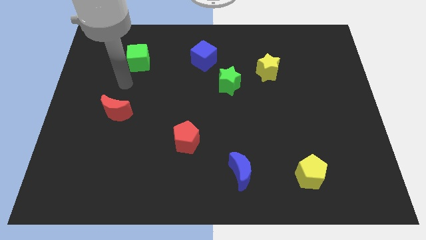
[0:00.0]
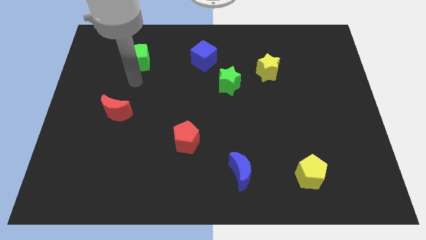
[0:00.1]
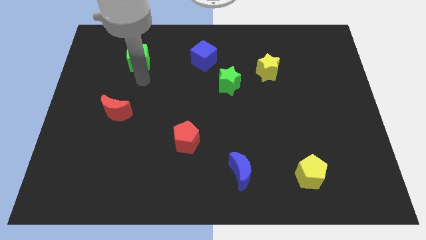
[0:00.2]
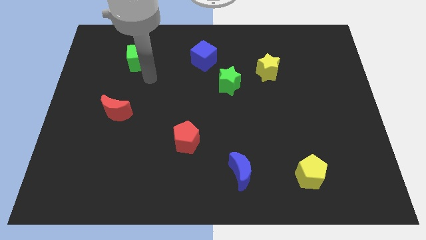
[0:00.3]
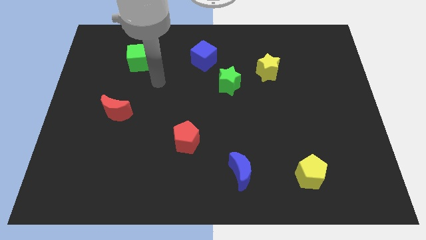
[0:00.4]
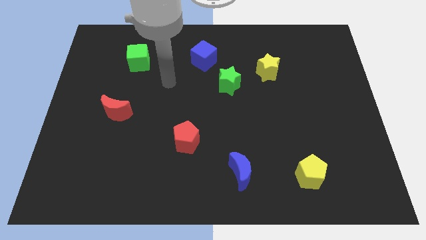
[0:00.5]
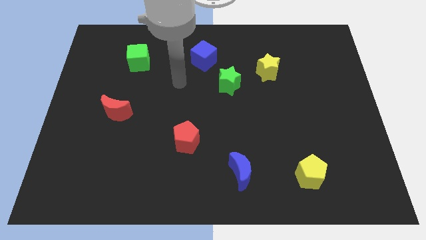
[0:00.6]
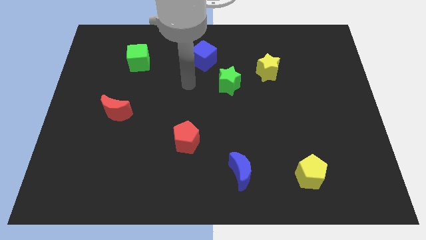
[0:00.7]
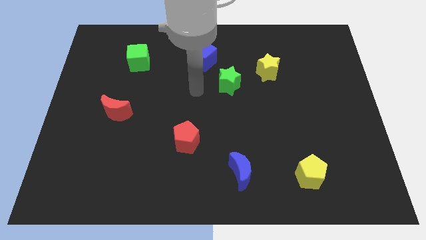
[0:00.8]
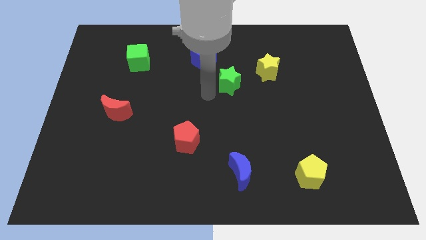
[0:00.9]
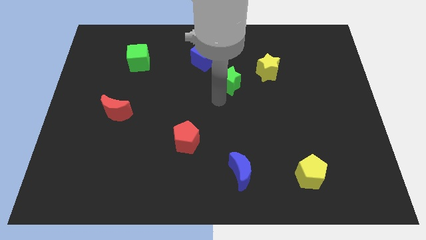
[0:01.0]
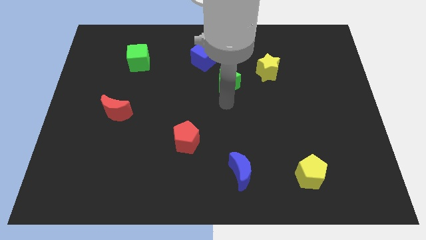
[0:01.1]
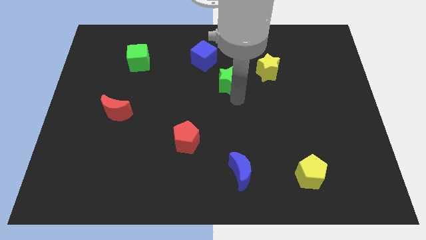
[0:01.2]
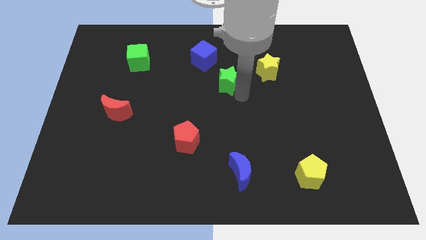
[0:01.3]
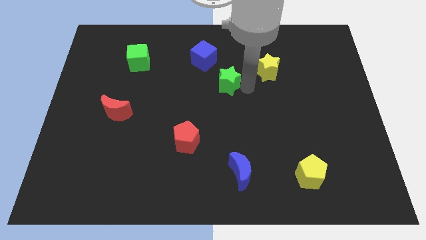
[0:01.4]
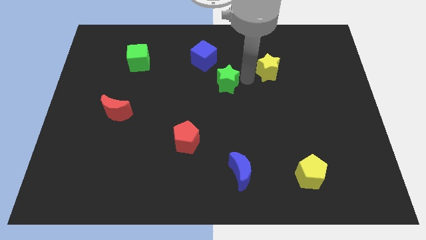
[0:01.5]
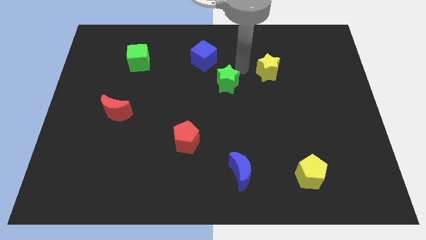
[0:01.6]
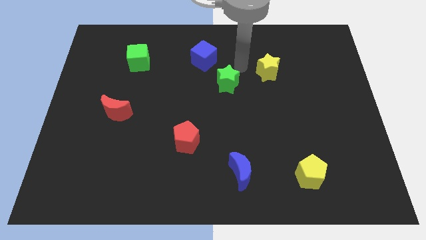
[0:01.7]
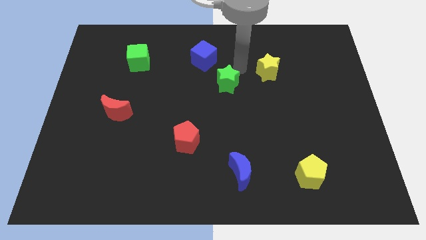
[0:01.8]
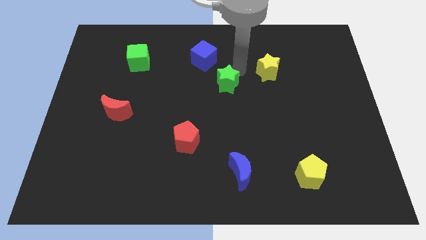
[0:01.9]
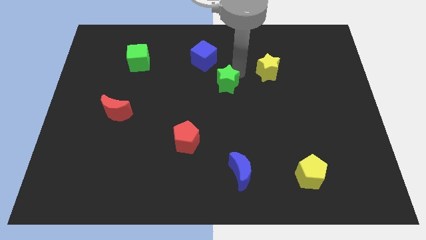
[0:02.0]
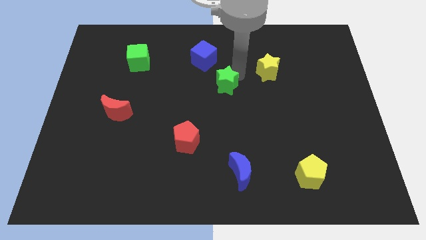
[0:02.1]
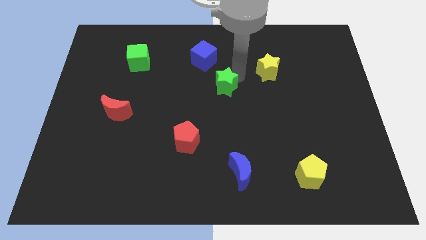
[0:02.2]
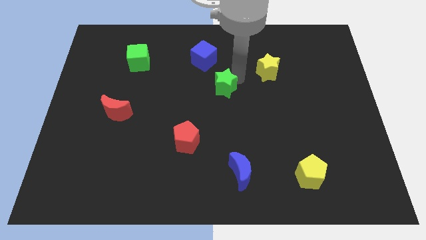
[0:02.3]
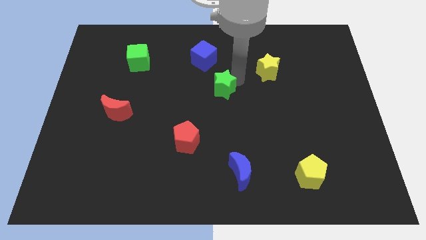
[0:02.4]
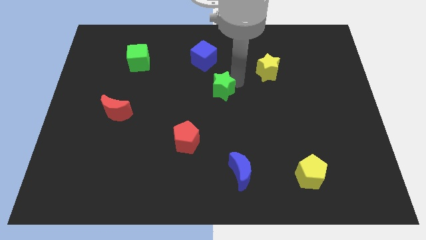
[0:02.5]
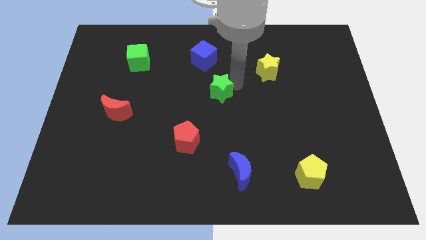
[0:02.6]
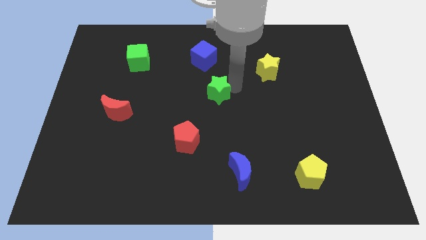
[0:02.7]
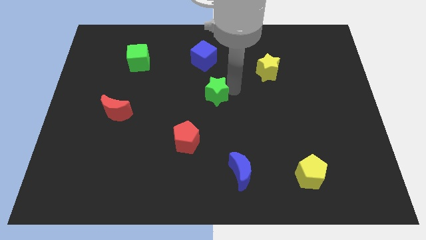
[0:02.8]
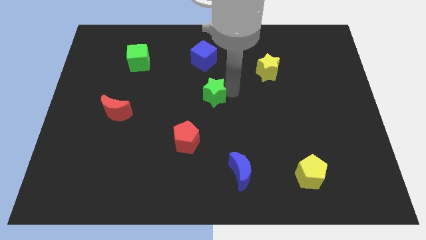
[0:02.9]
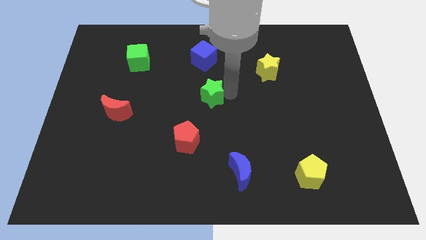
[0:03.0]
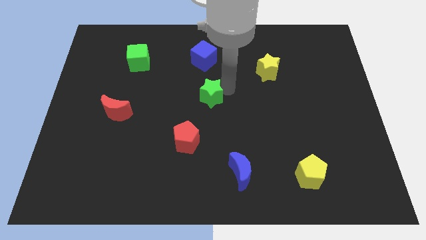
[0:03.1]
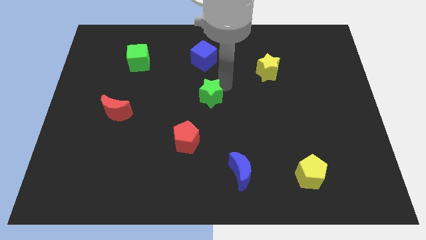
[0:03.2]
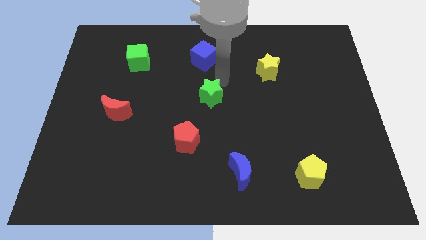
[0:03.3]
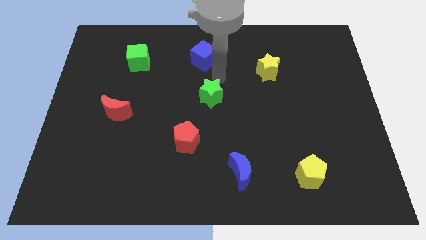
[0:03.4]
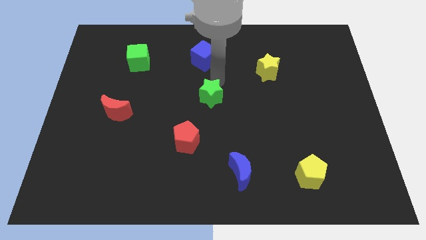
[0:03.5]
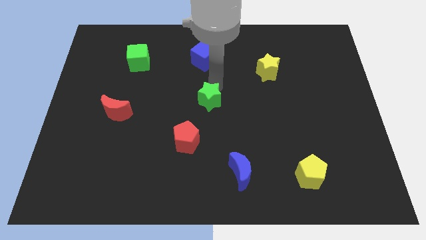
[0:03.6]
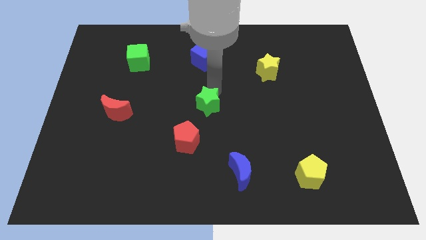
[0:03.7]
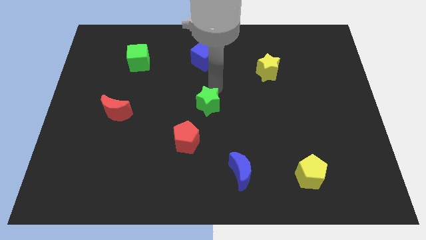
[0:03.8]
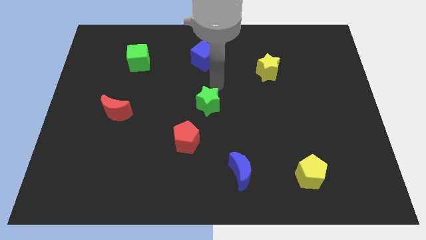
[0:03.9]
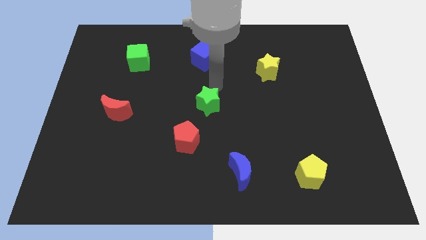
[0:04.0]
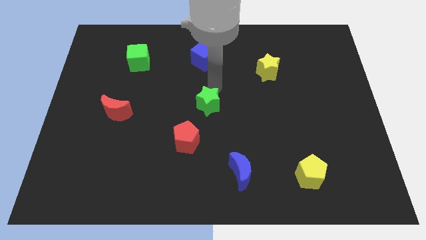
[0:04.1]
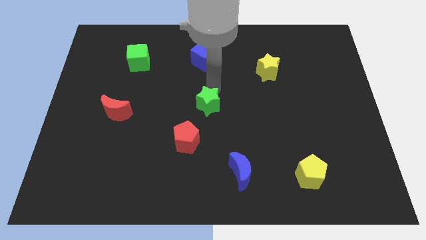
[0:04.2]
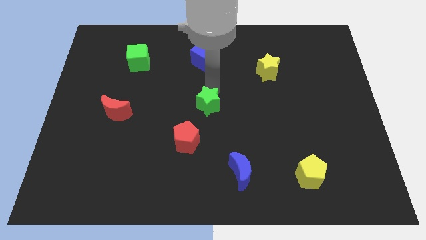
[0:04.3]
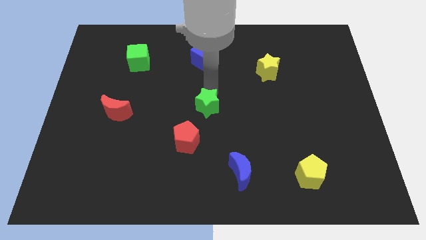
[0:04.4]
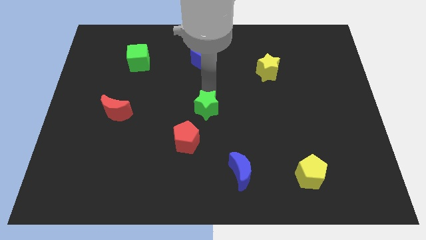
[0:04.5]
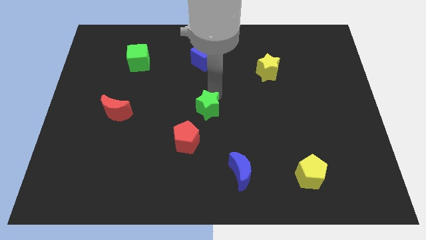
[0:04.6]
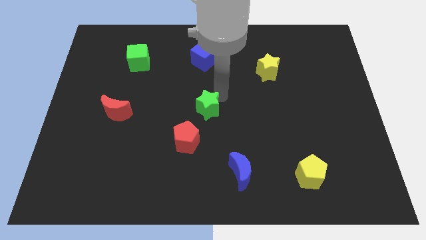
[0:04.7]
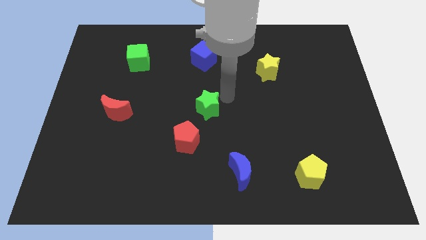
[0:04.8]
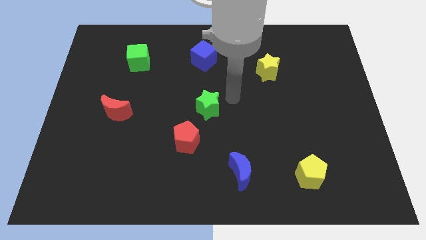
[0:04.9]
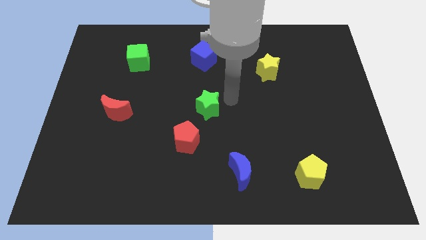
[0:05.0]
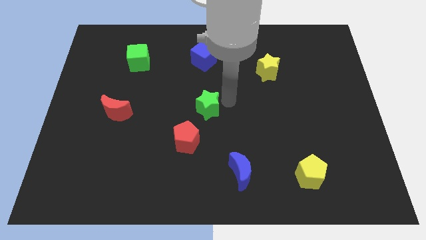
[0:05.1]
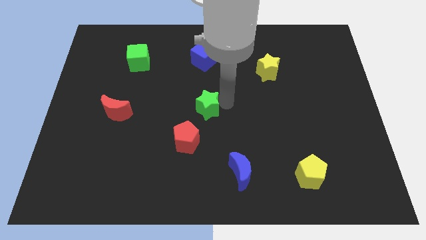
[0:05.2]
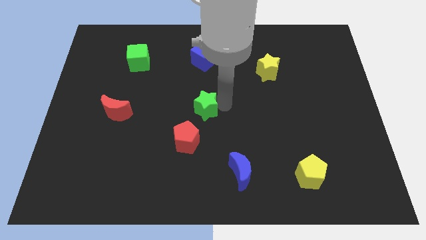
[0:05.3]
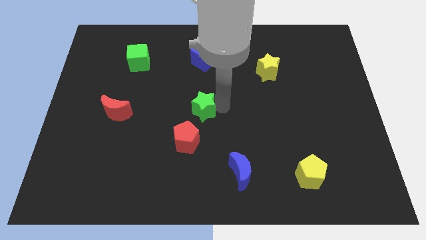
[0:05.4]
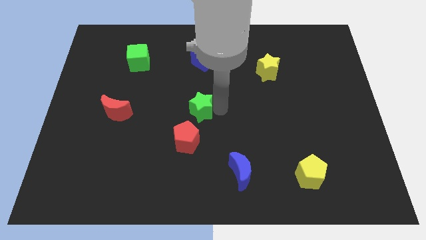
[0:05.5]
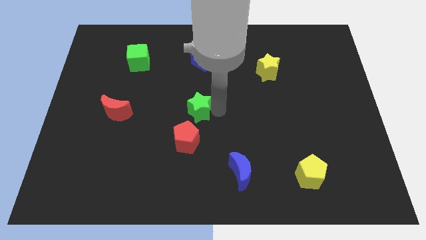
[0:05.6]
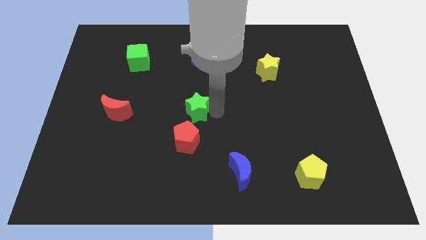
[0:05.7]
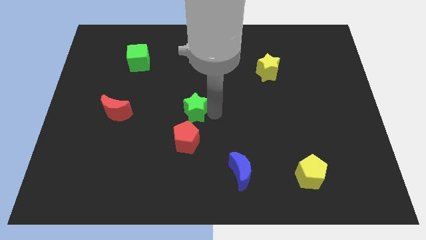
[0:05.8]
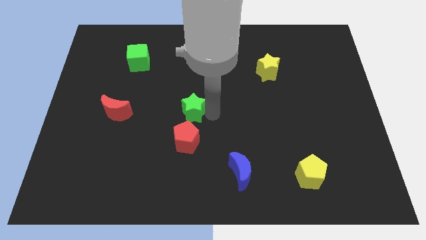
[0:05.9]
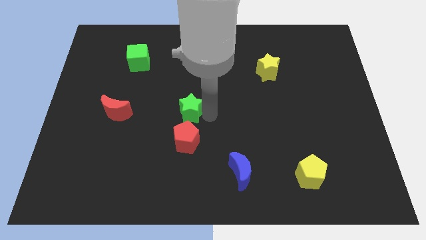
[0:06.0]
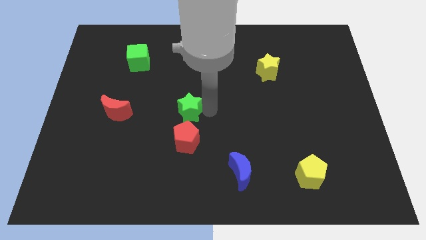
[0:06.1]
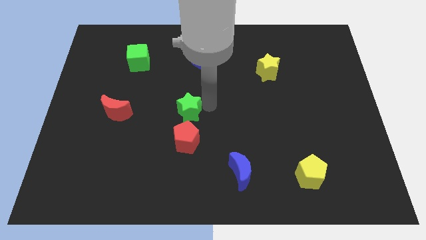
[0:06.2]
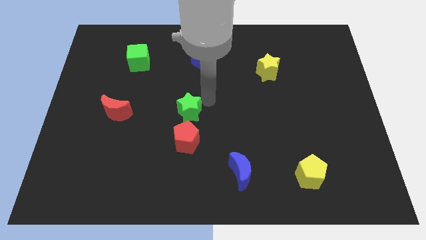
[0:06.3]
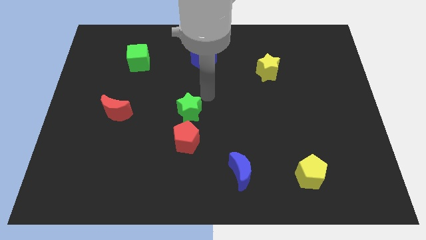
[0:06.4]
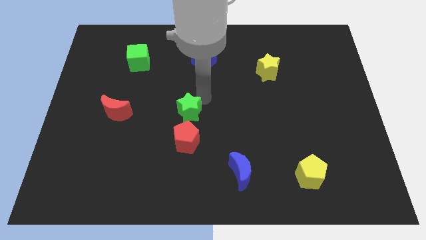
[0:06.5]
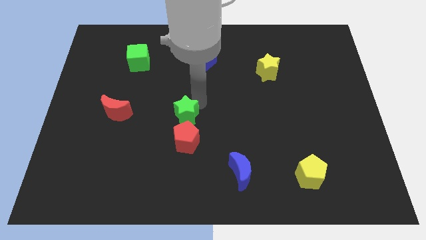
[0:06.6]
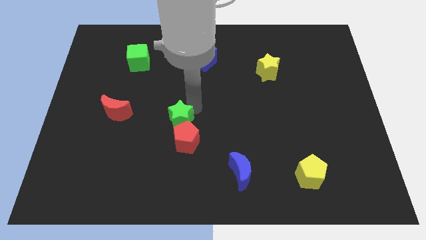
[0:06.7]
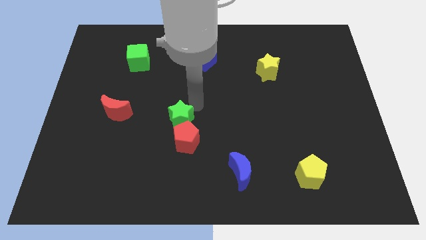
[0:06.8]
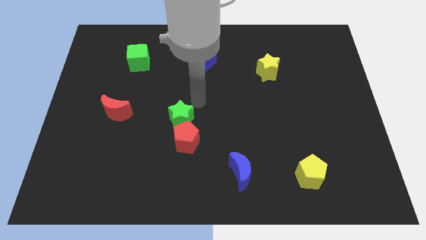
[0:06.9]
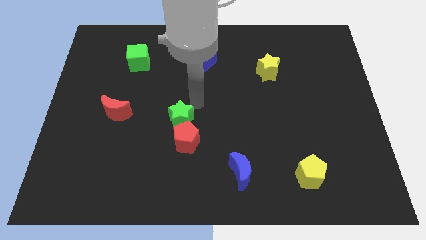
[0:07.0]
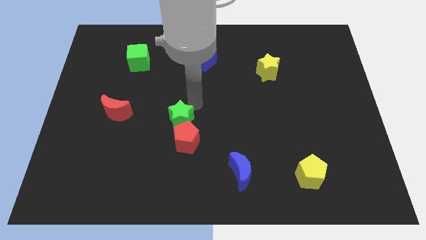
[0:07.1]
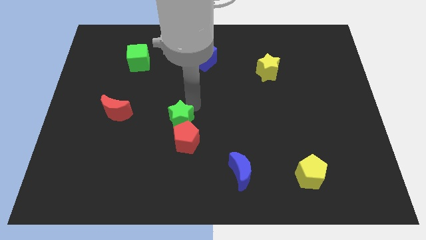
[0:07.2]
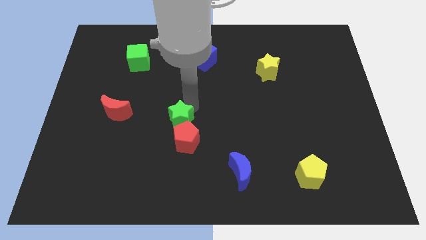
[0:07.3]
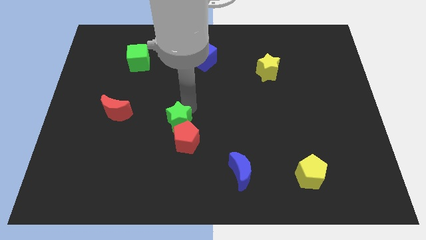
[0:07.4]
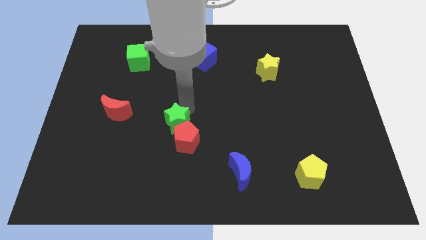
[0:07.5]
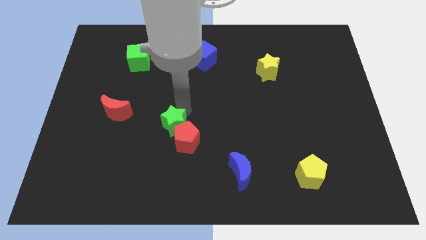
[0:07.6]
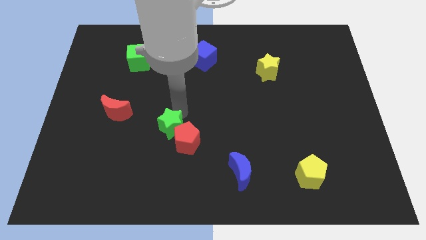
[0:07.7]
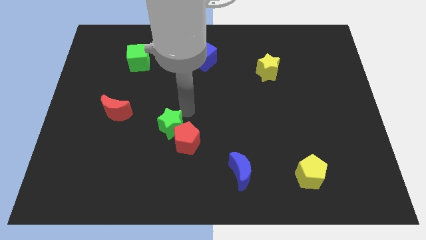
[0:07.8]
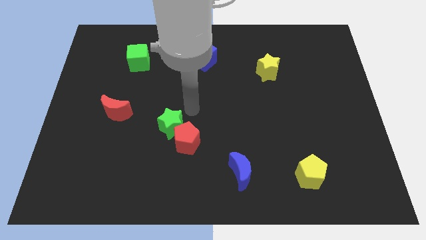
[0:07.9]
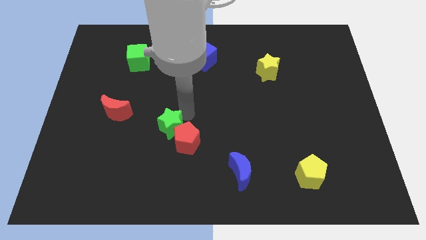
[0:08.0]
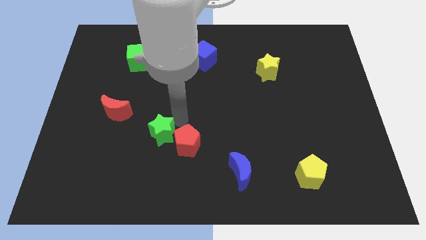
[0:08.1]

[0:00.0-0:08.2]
push the green star diagonally down and left
